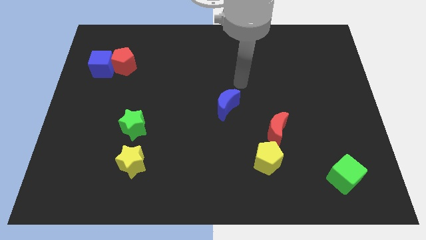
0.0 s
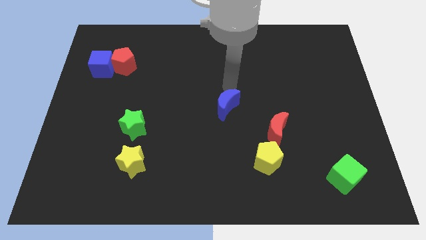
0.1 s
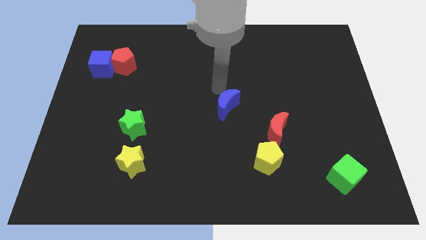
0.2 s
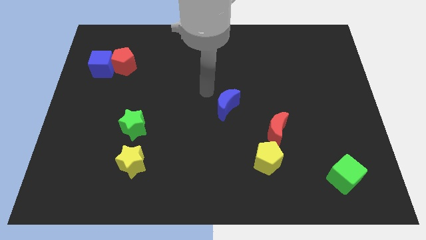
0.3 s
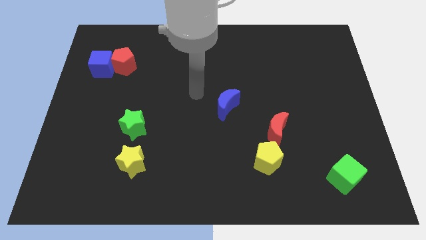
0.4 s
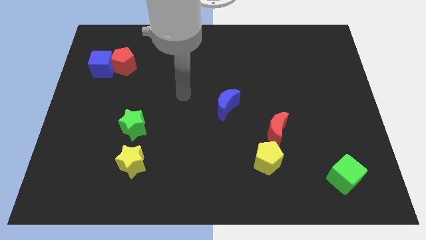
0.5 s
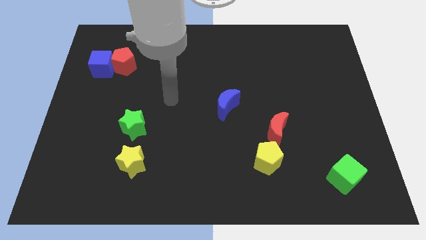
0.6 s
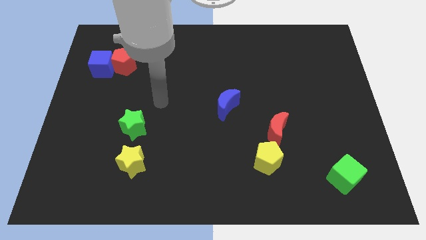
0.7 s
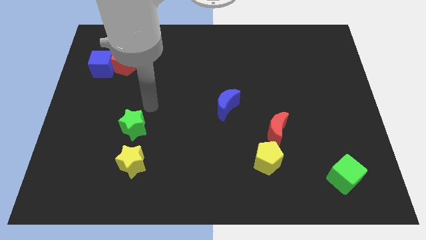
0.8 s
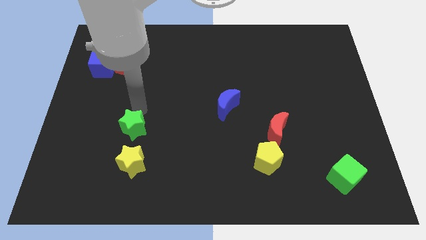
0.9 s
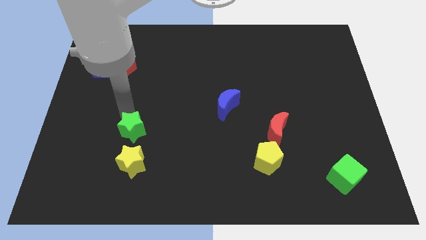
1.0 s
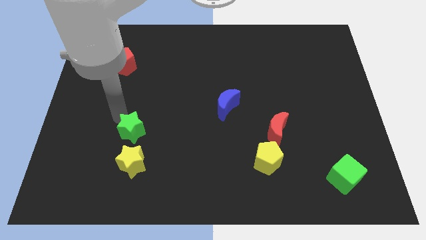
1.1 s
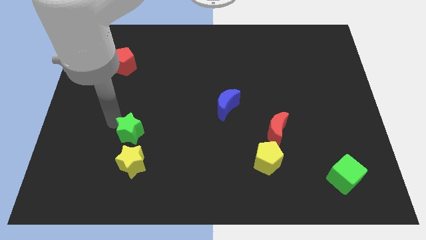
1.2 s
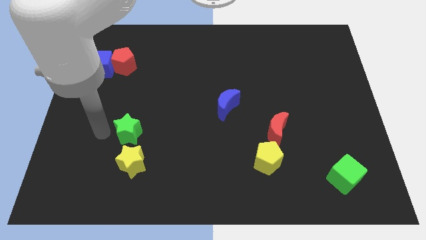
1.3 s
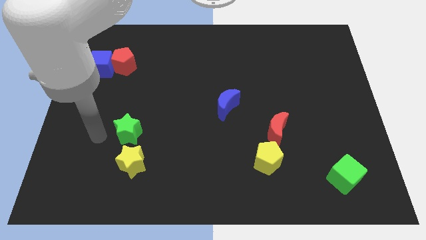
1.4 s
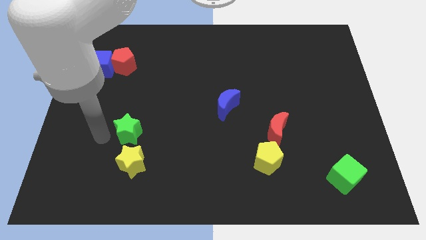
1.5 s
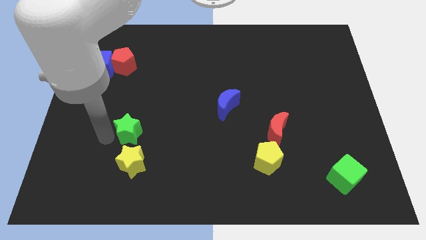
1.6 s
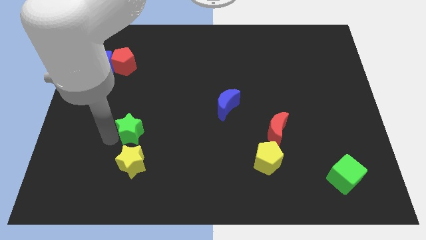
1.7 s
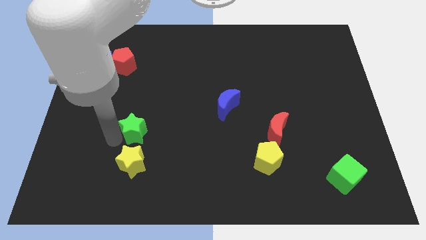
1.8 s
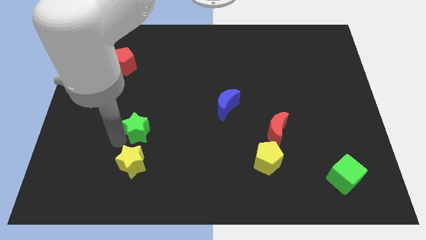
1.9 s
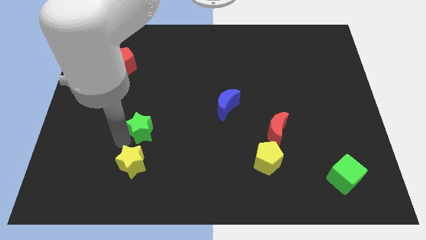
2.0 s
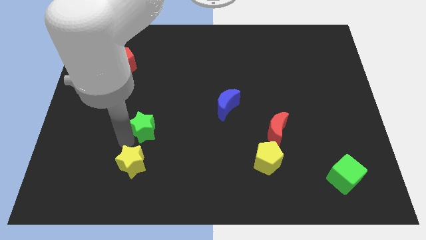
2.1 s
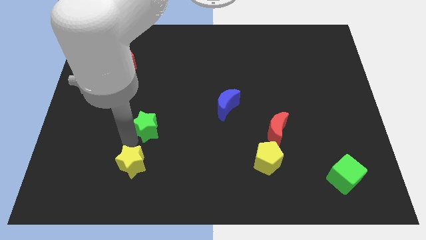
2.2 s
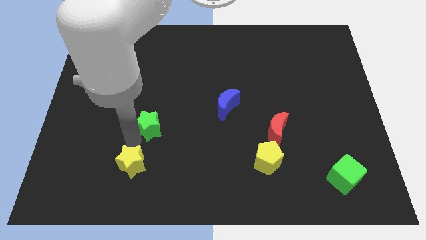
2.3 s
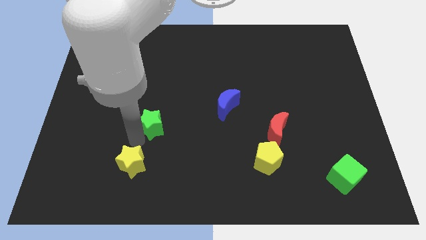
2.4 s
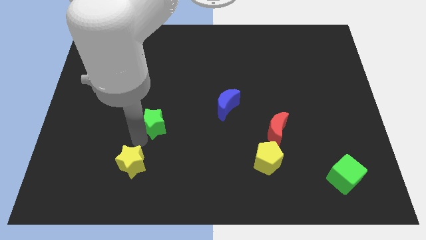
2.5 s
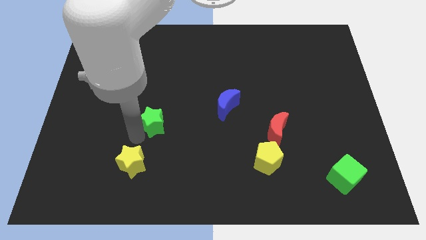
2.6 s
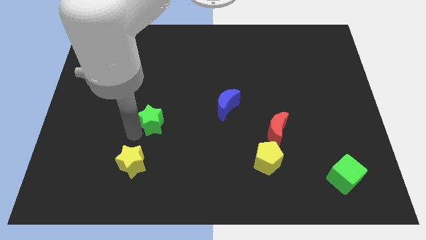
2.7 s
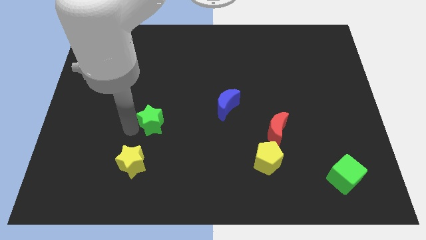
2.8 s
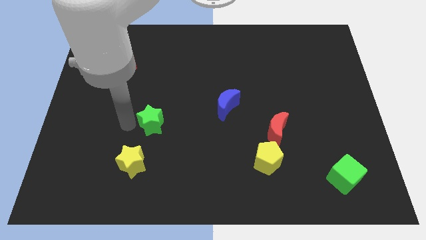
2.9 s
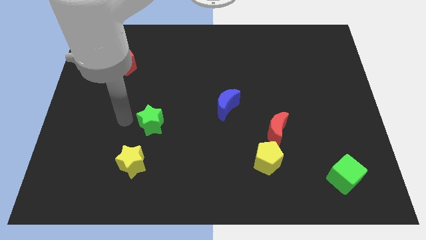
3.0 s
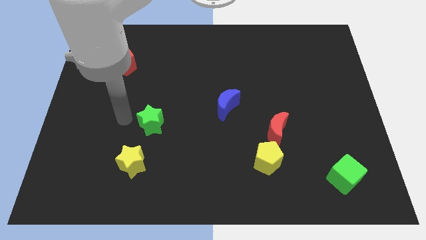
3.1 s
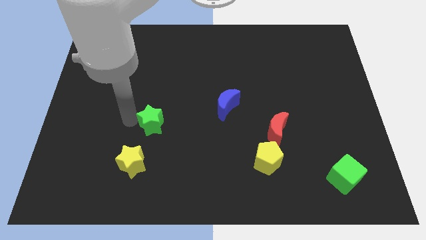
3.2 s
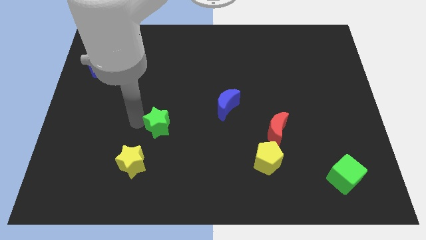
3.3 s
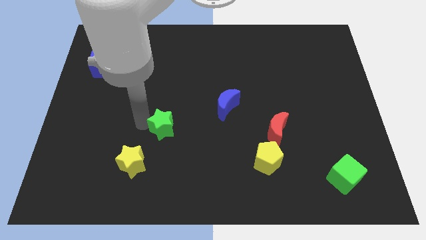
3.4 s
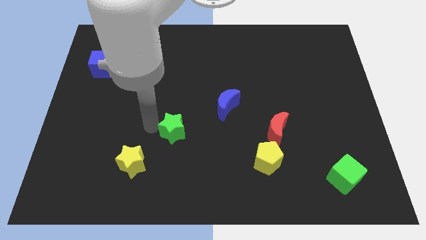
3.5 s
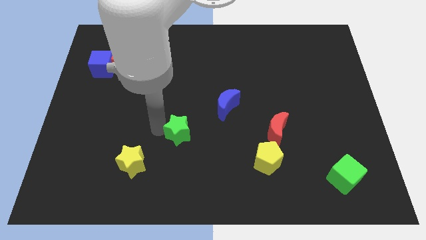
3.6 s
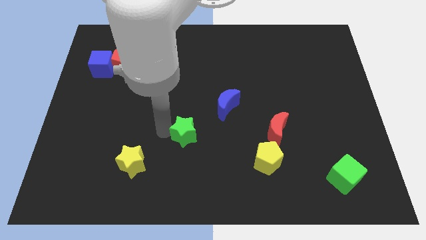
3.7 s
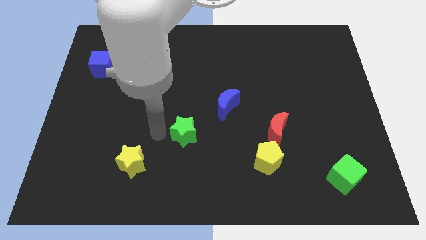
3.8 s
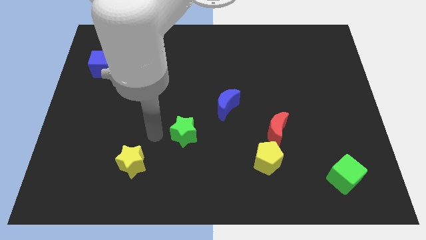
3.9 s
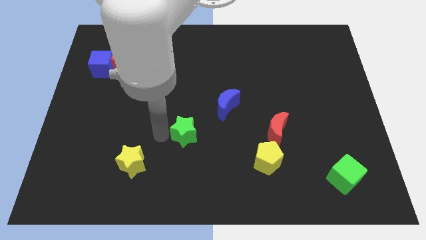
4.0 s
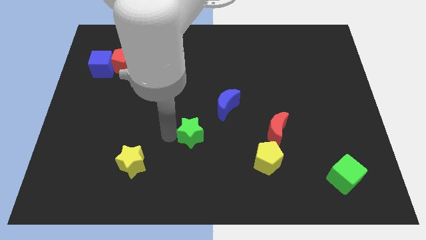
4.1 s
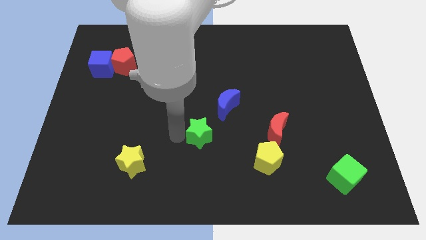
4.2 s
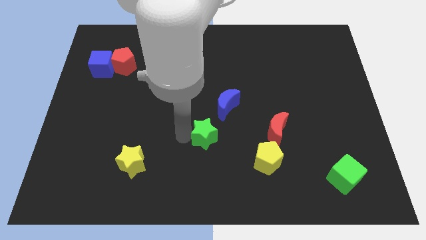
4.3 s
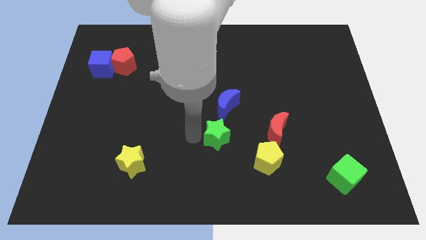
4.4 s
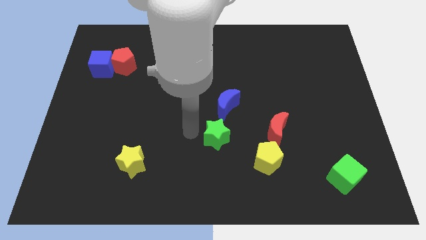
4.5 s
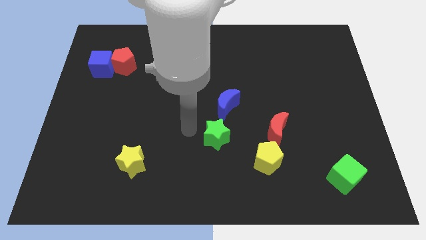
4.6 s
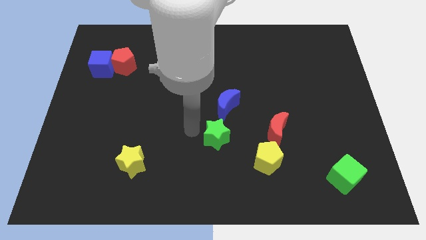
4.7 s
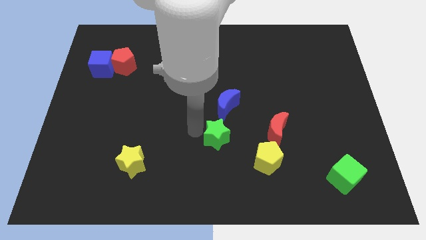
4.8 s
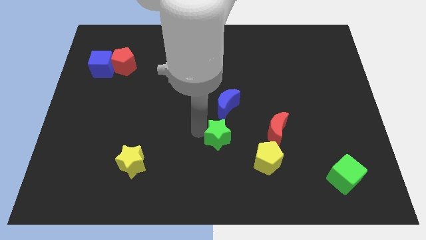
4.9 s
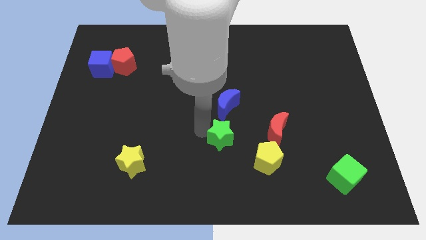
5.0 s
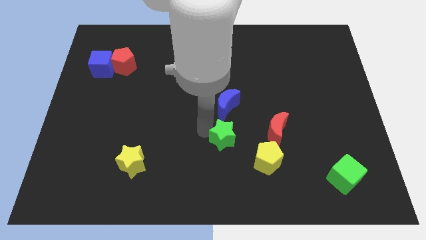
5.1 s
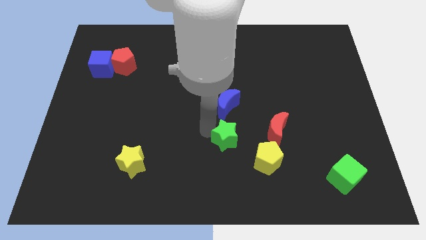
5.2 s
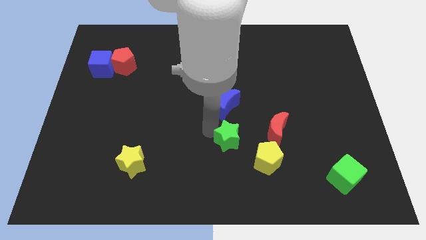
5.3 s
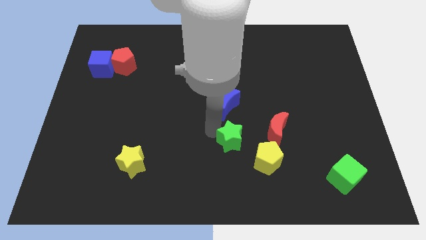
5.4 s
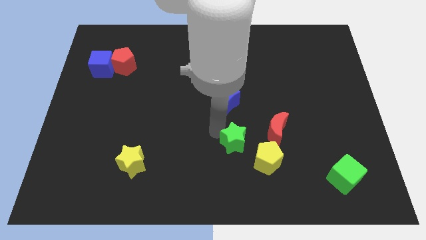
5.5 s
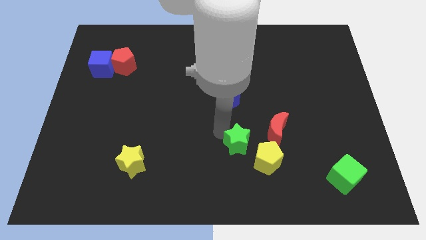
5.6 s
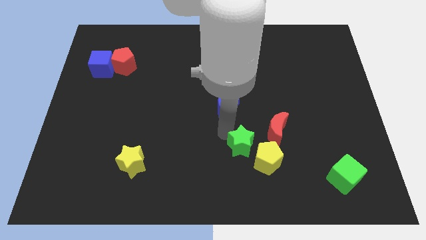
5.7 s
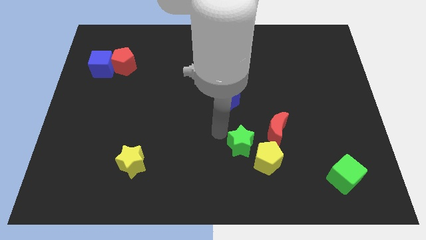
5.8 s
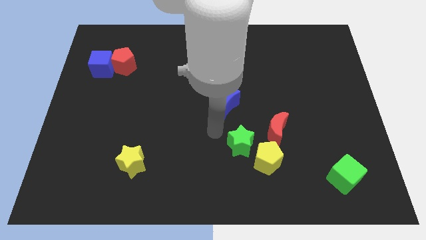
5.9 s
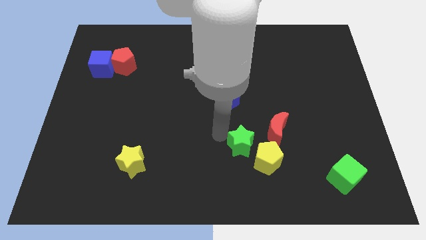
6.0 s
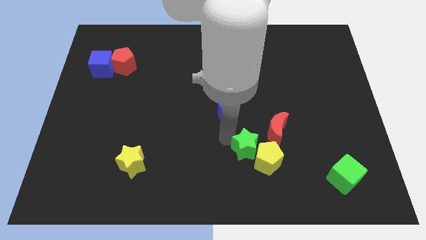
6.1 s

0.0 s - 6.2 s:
push the green star next to the yellow pentagon

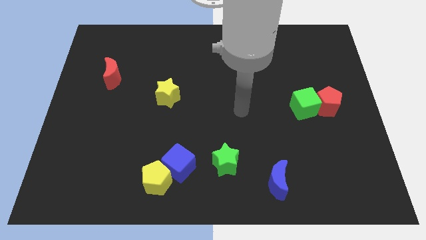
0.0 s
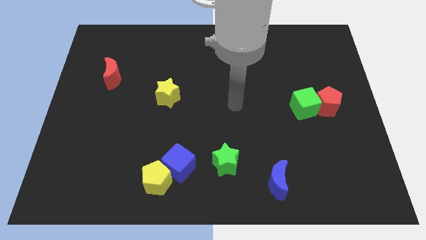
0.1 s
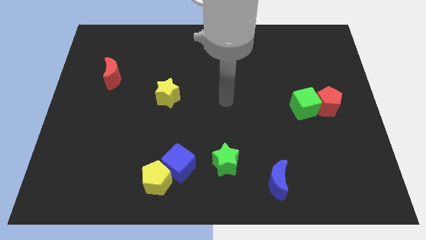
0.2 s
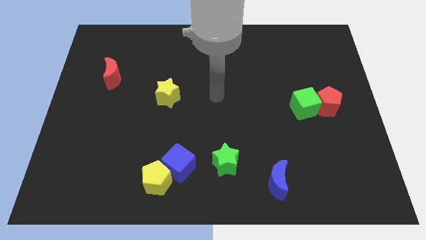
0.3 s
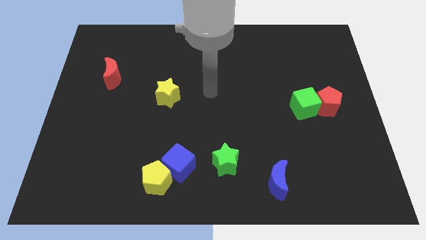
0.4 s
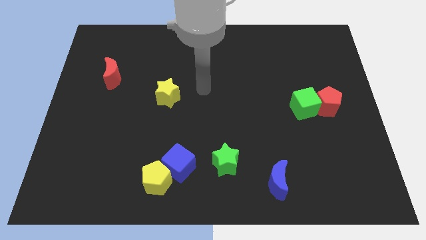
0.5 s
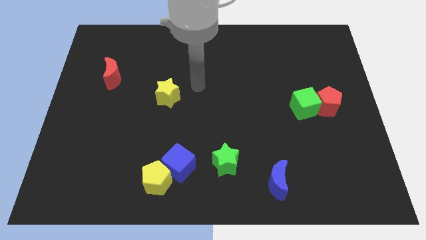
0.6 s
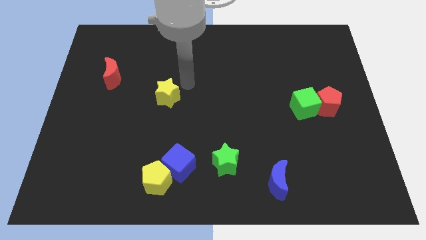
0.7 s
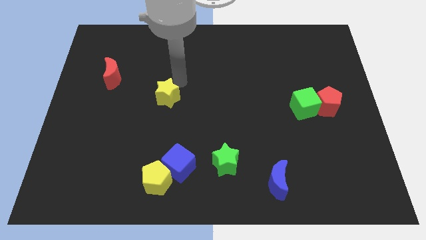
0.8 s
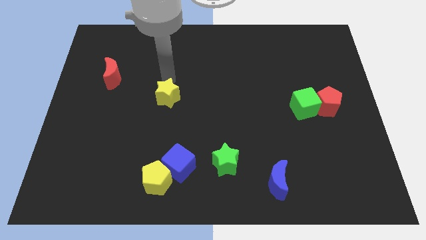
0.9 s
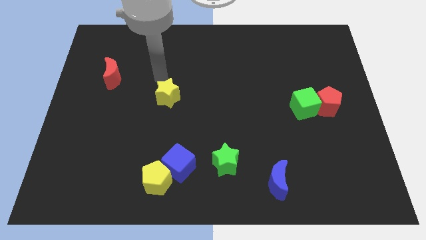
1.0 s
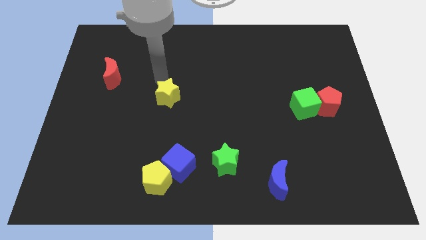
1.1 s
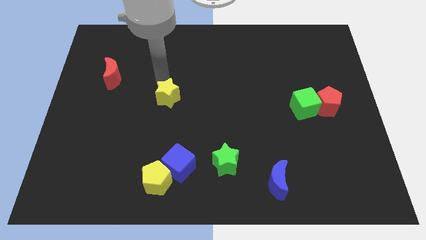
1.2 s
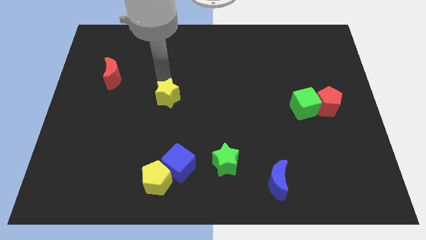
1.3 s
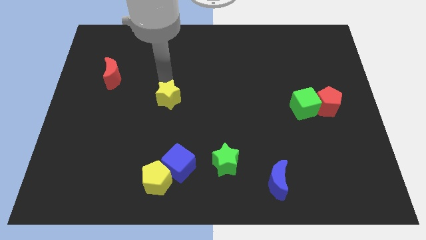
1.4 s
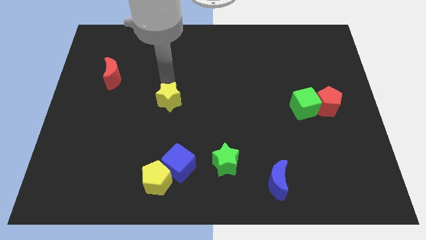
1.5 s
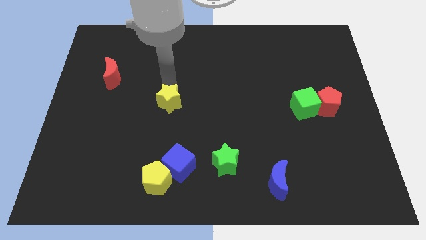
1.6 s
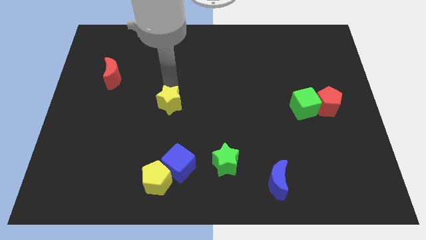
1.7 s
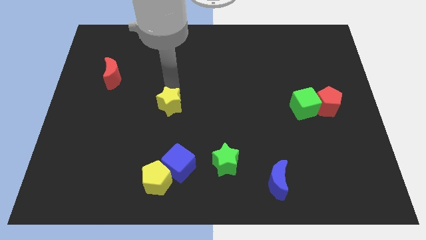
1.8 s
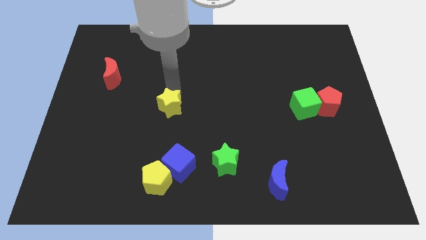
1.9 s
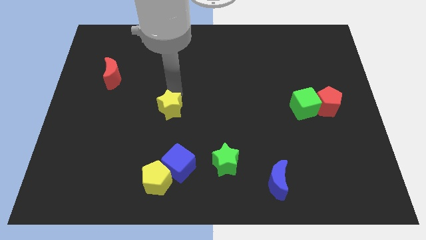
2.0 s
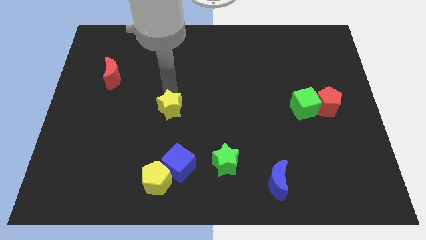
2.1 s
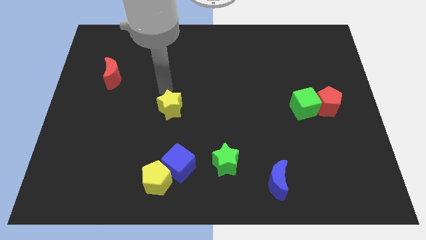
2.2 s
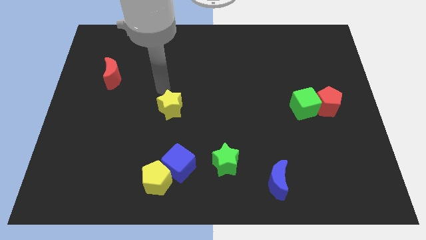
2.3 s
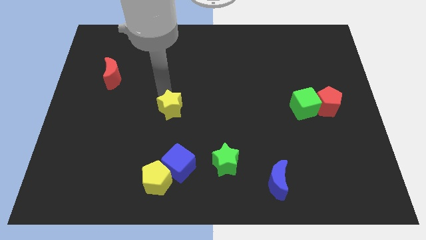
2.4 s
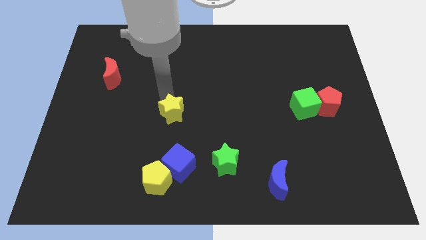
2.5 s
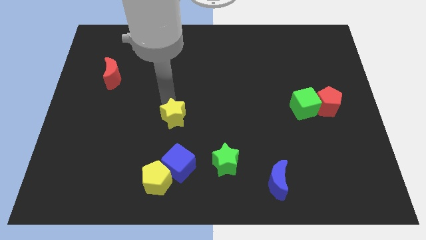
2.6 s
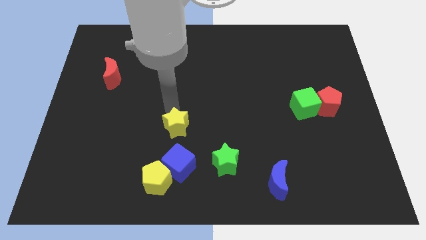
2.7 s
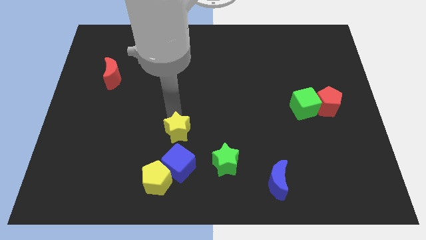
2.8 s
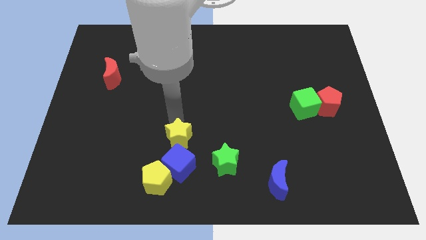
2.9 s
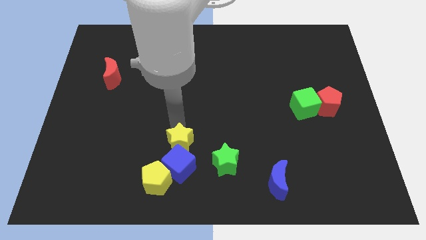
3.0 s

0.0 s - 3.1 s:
put the yellow star close to the blue cube
